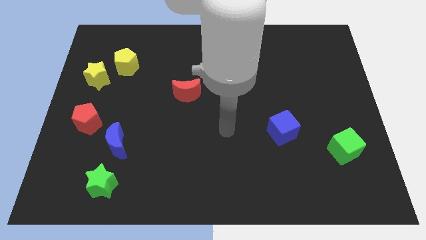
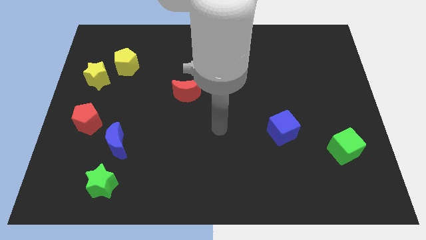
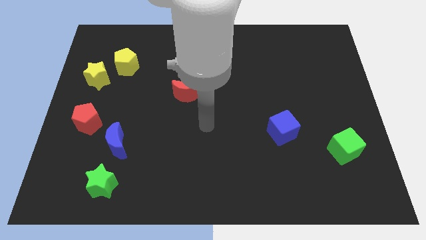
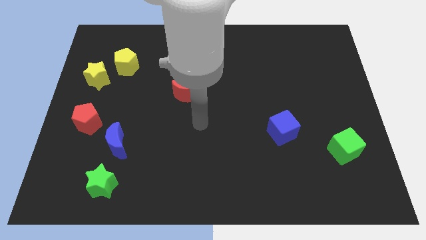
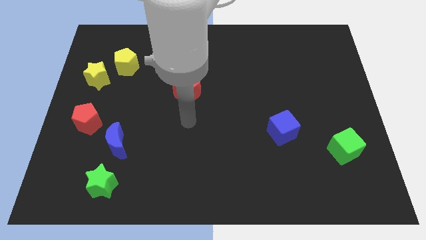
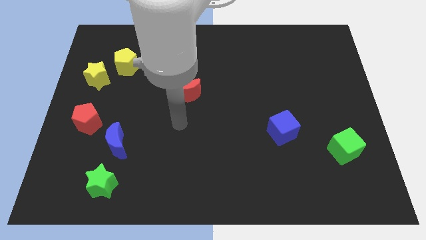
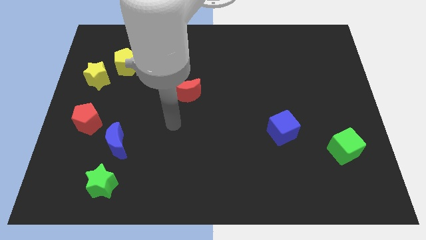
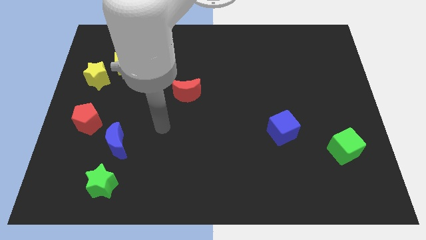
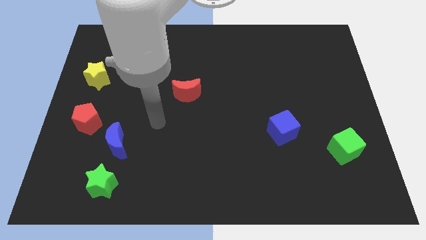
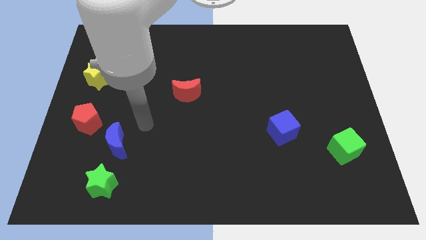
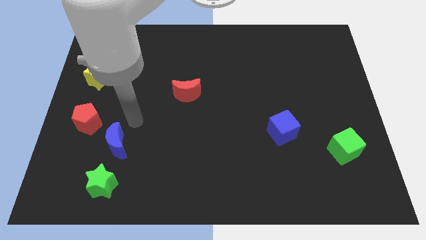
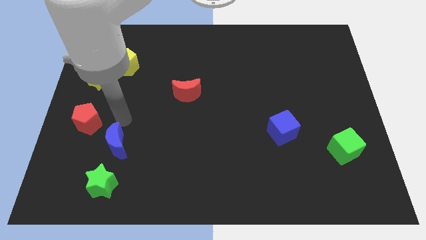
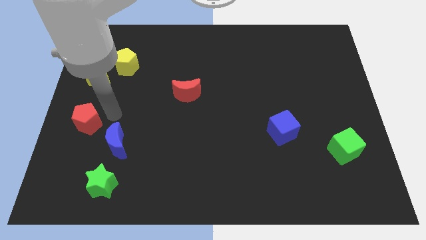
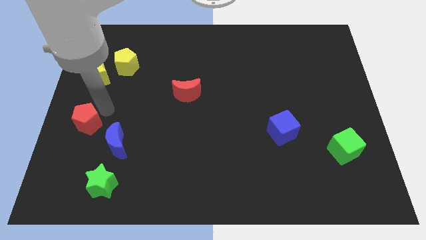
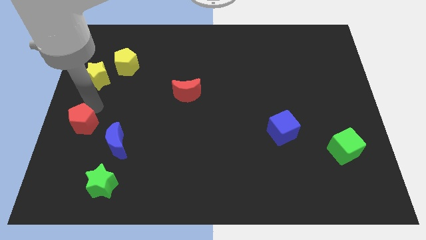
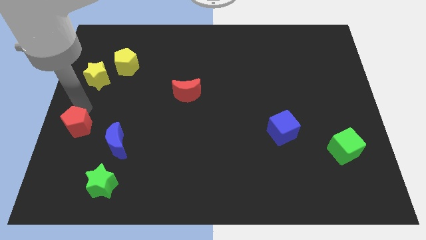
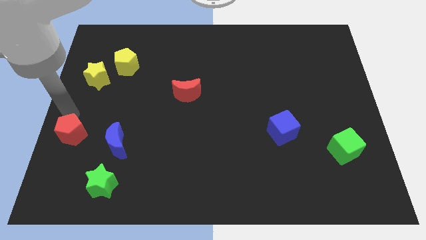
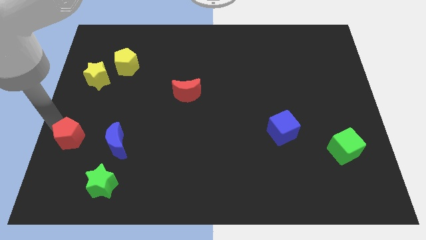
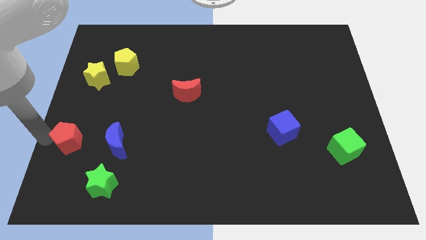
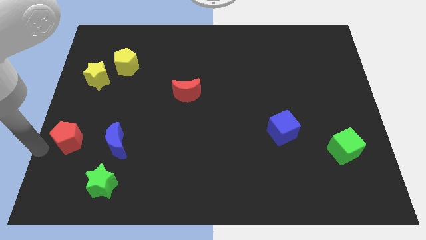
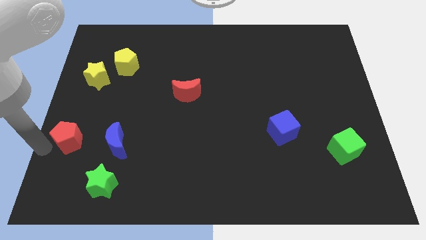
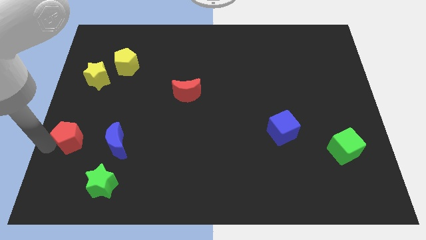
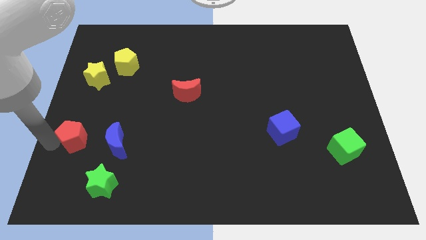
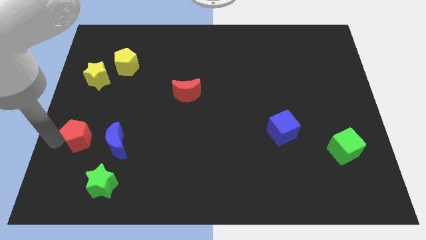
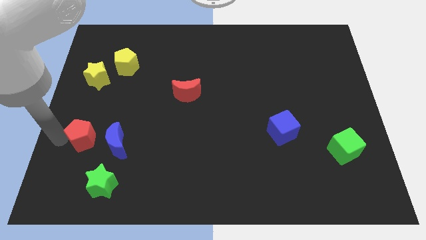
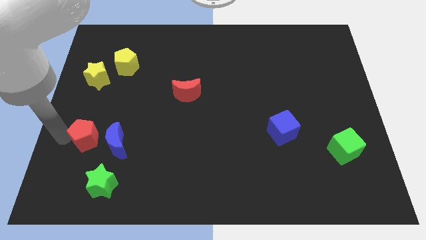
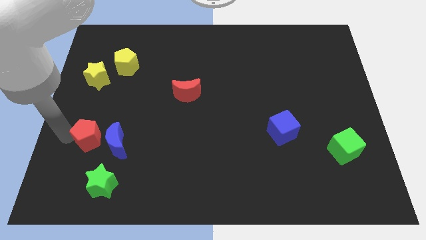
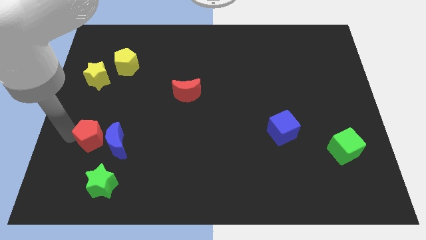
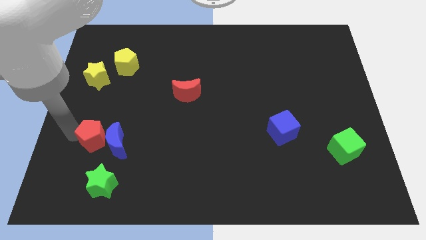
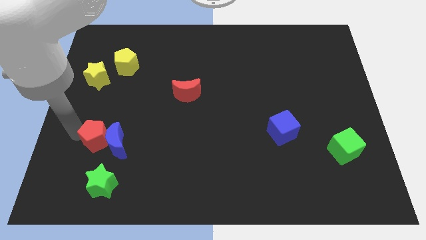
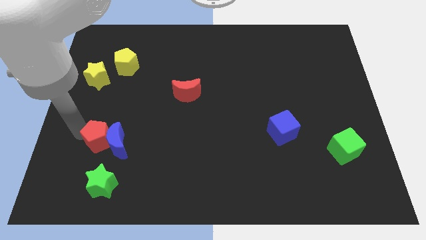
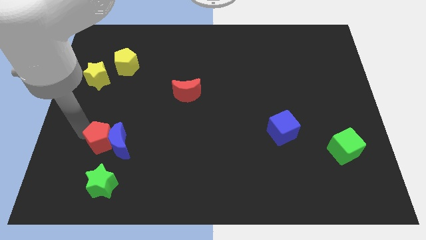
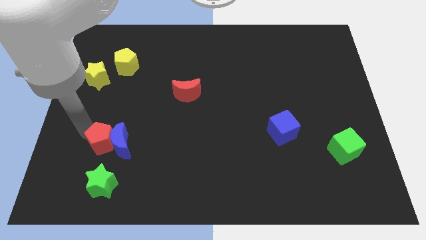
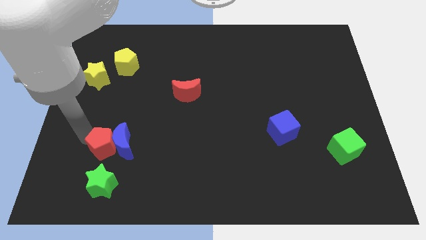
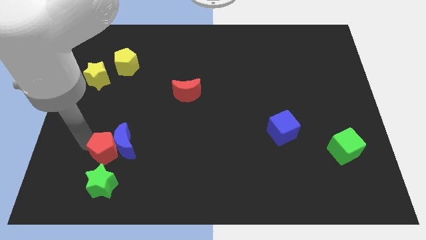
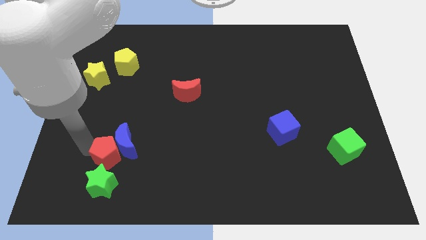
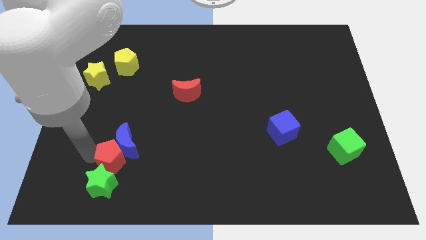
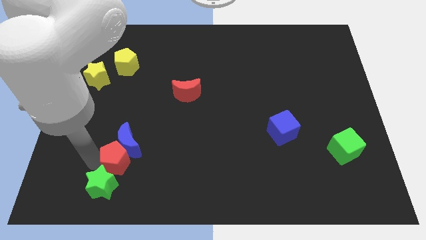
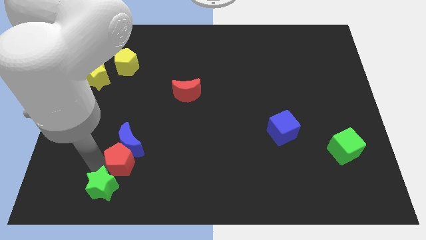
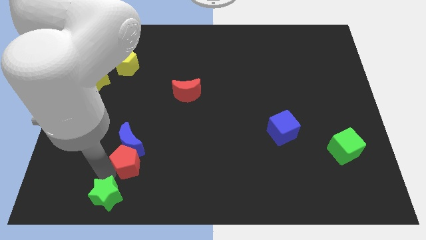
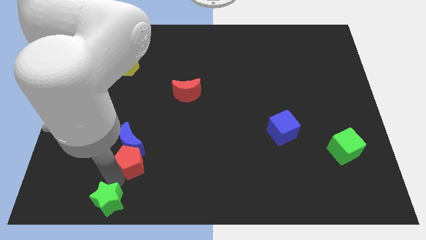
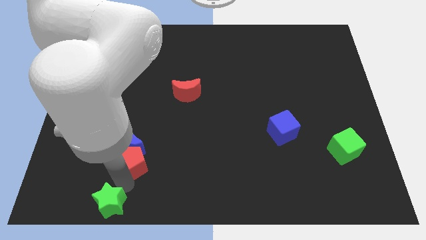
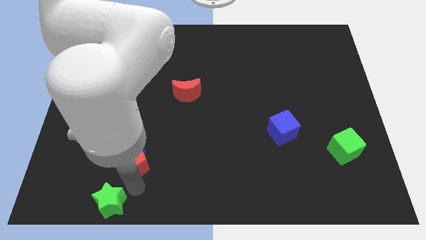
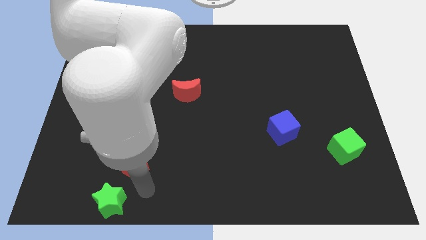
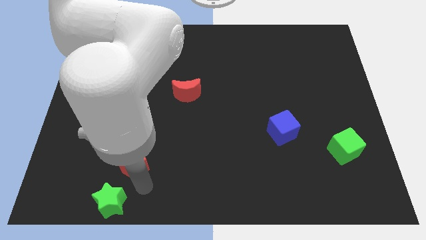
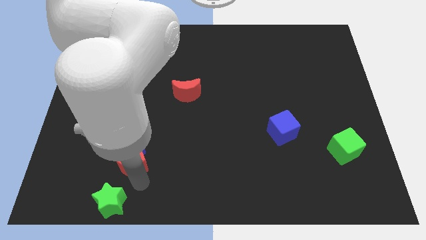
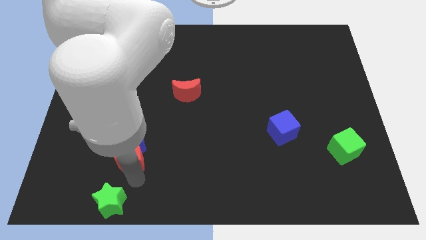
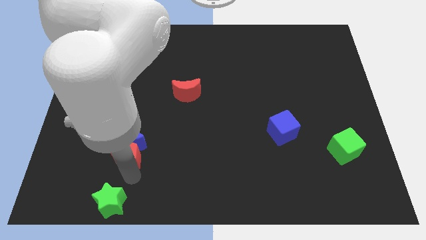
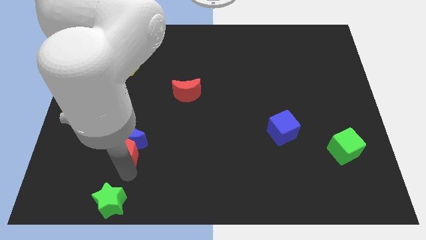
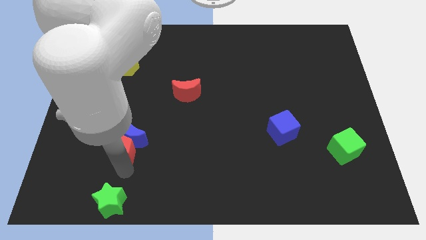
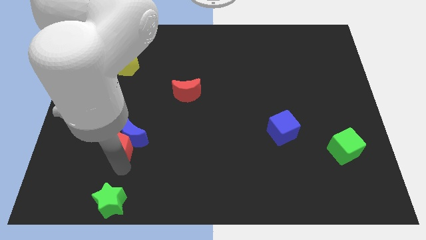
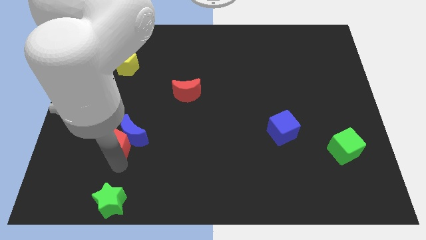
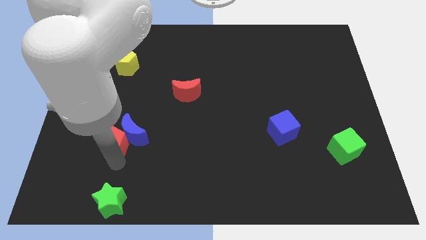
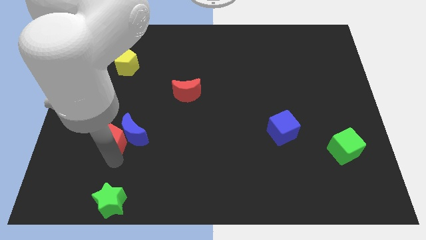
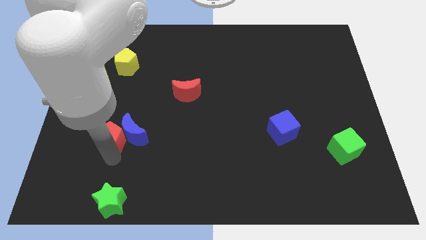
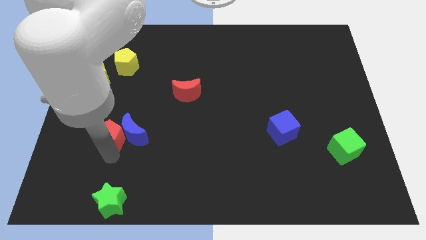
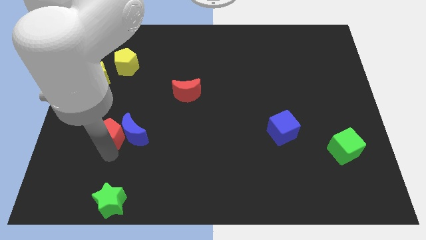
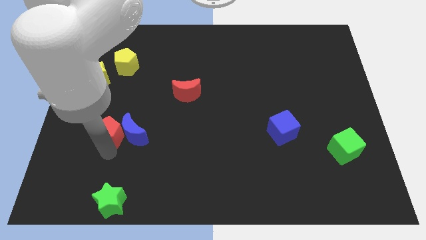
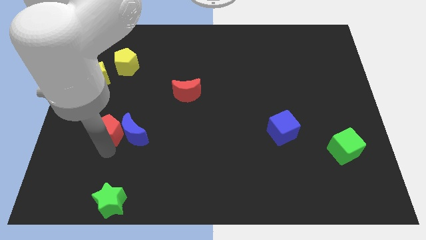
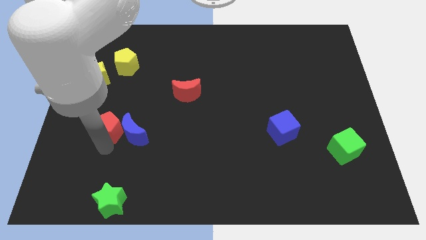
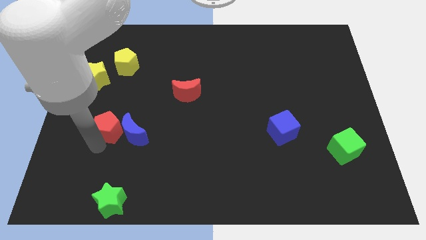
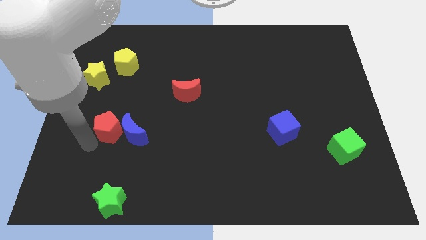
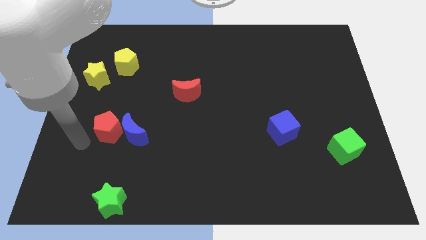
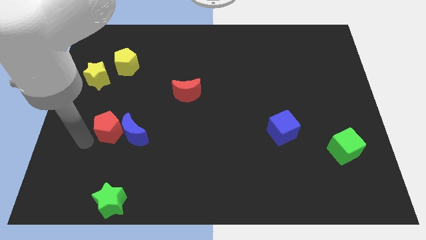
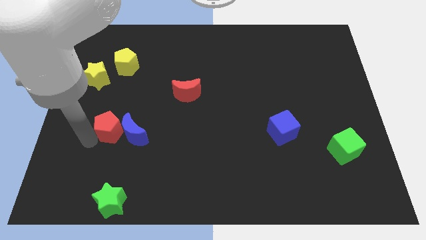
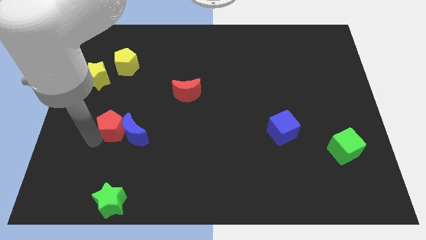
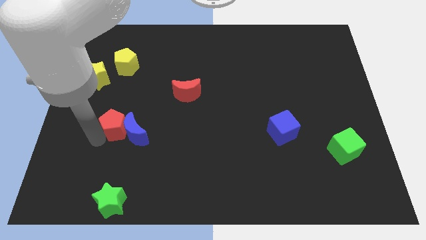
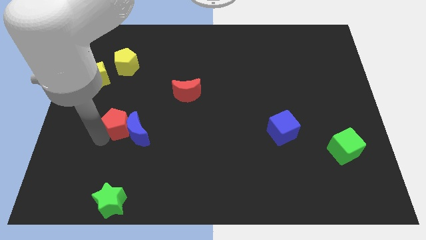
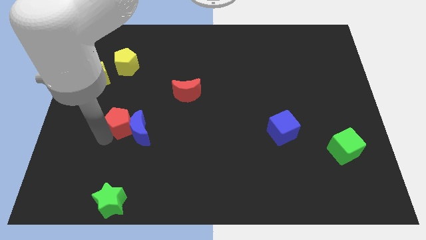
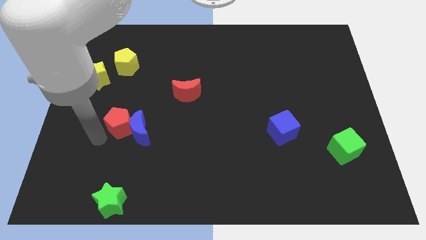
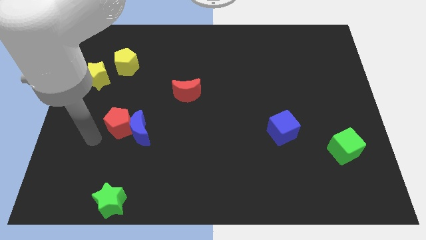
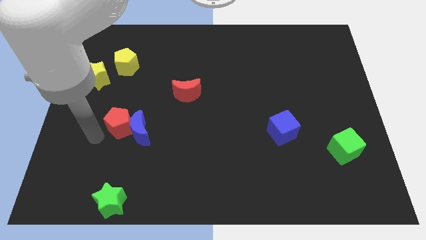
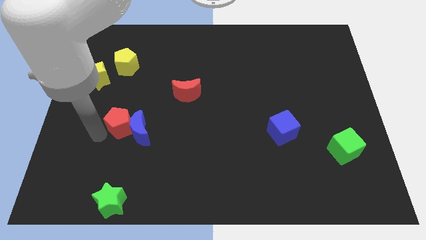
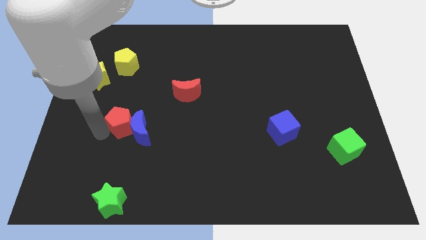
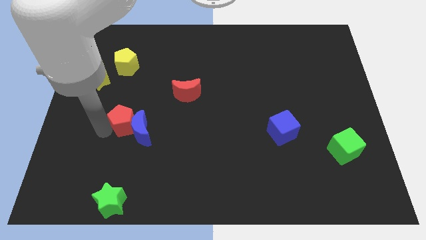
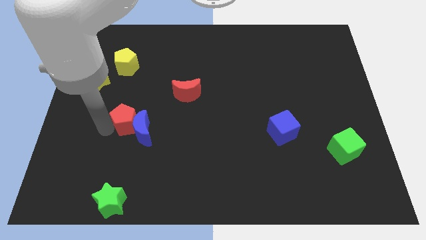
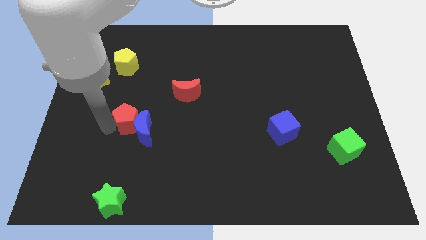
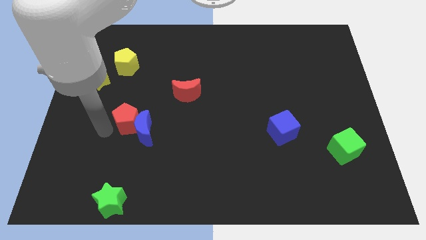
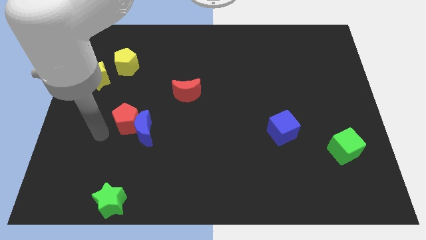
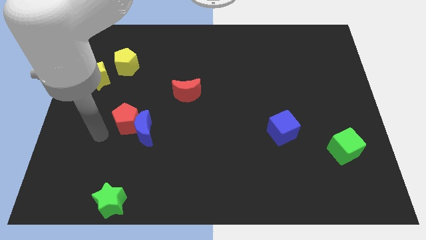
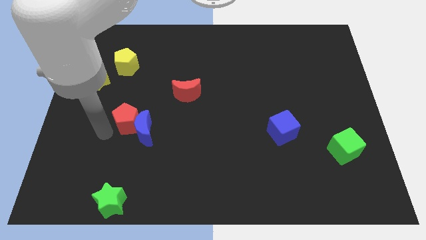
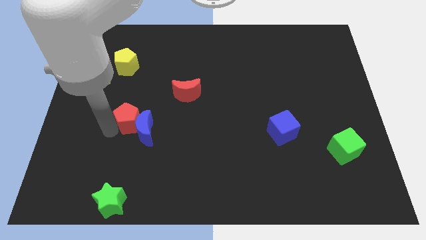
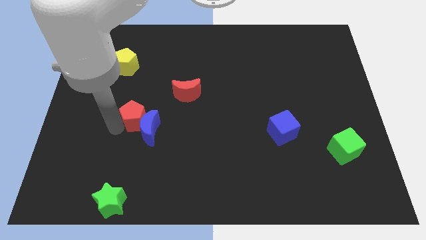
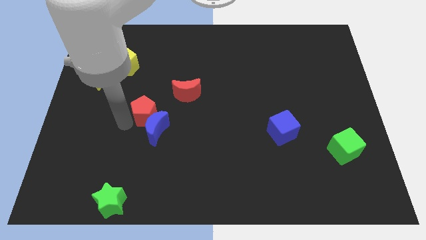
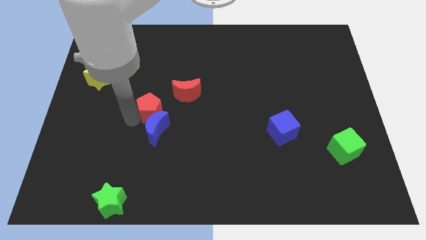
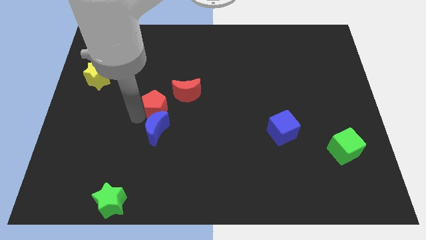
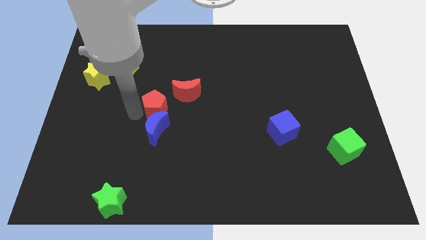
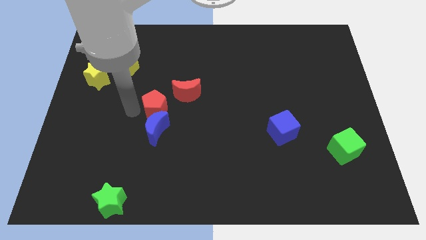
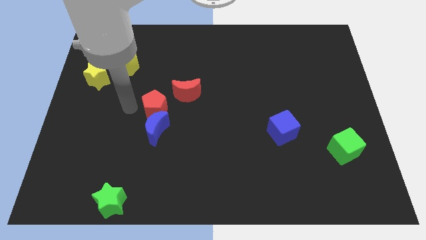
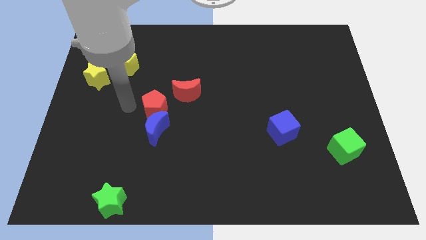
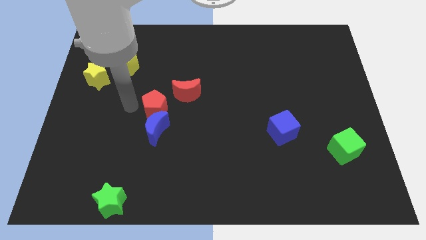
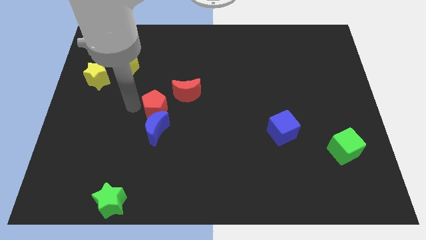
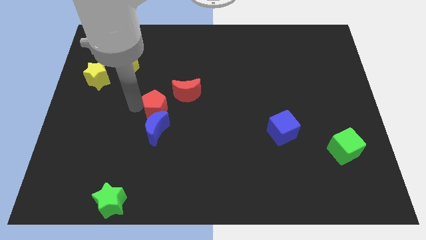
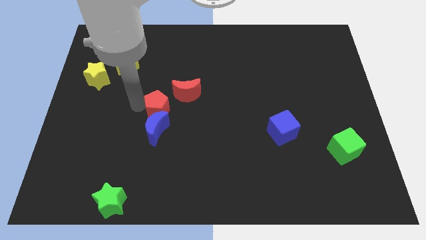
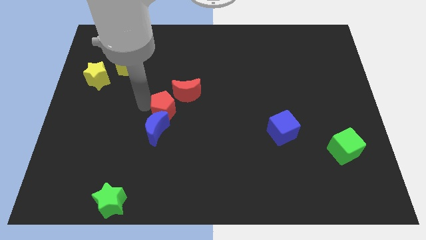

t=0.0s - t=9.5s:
move the red pentagon to the middle of the board
